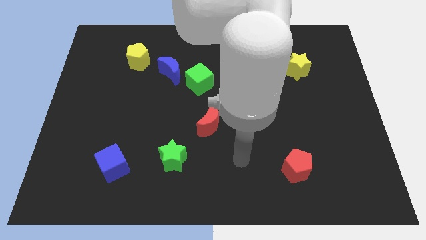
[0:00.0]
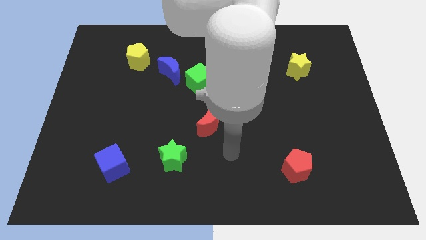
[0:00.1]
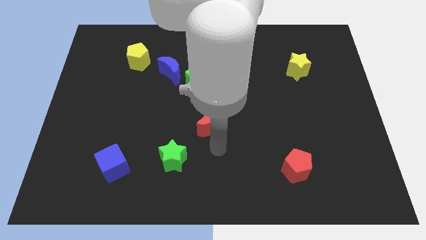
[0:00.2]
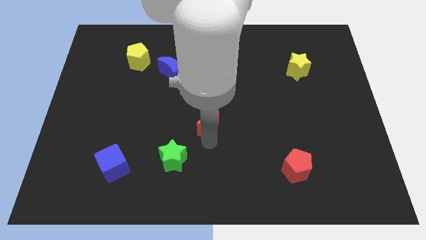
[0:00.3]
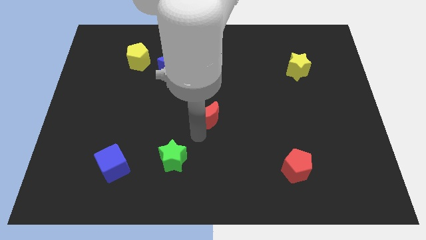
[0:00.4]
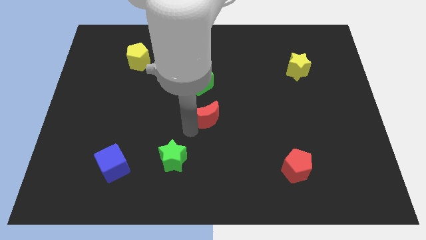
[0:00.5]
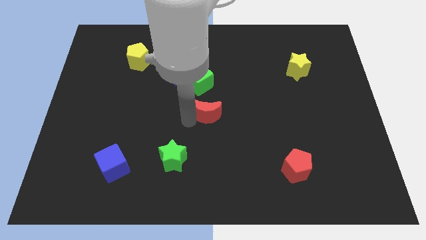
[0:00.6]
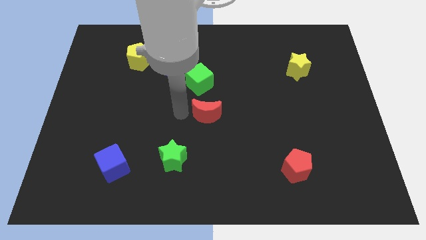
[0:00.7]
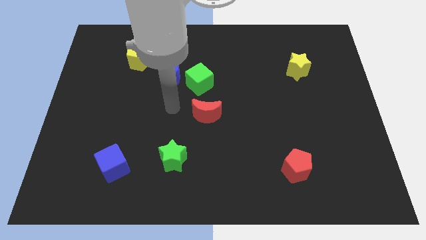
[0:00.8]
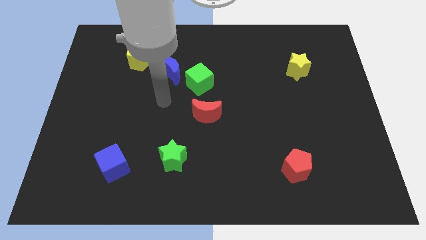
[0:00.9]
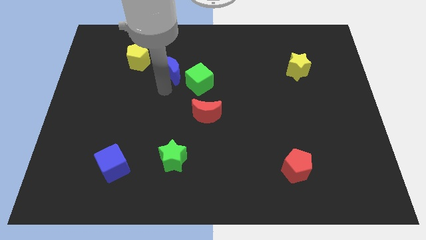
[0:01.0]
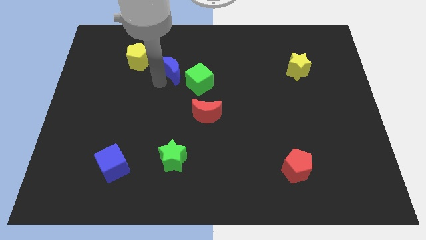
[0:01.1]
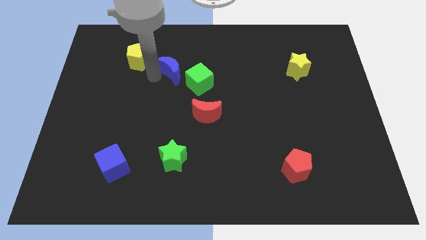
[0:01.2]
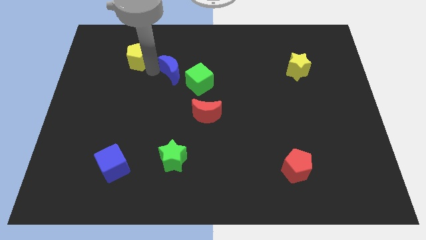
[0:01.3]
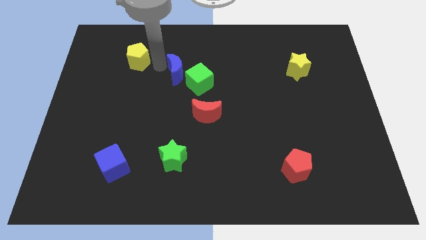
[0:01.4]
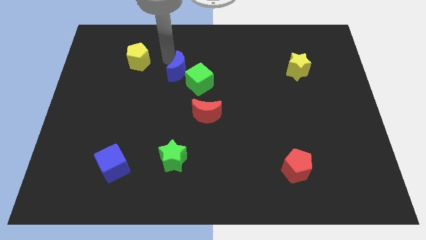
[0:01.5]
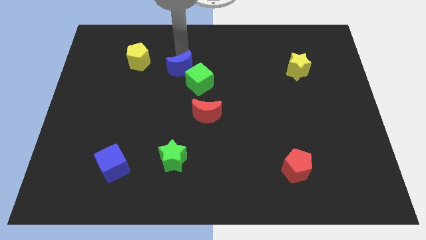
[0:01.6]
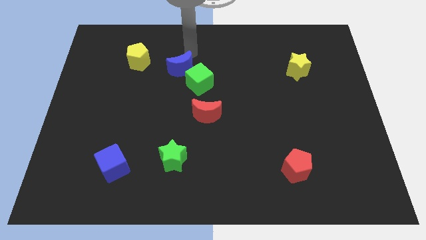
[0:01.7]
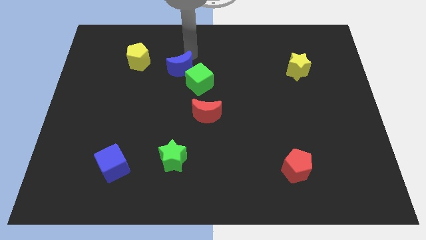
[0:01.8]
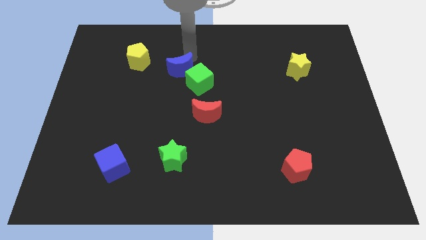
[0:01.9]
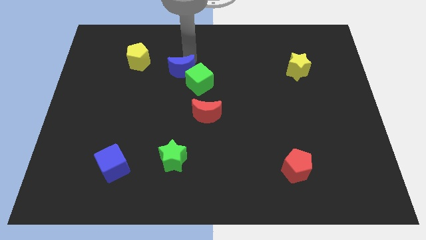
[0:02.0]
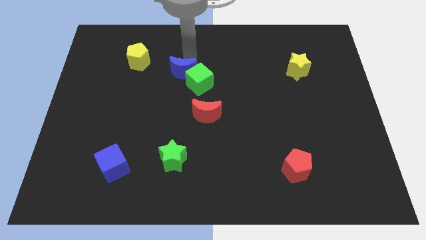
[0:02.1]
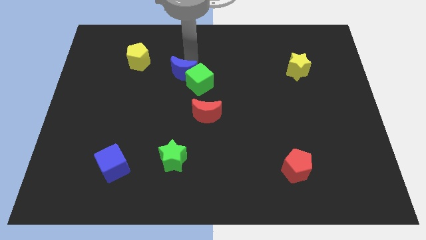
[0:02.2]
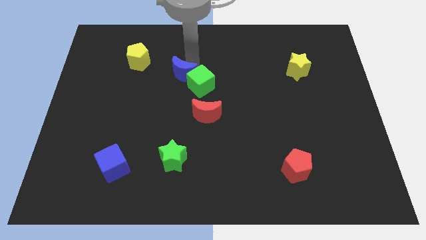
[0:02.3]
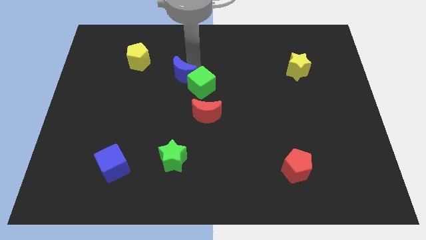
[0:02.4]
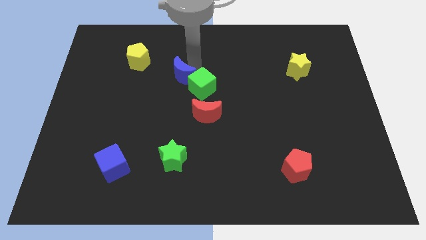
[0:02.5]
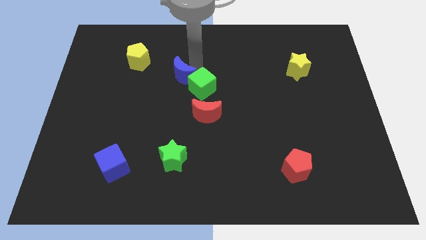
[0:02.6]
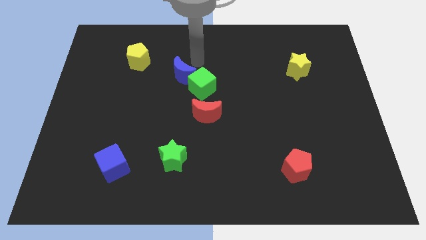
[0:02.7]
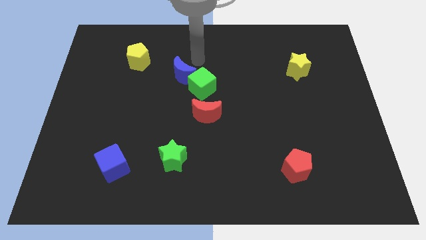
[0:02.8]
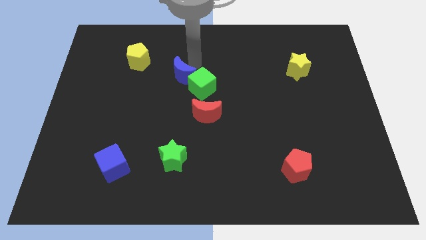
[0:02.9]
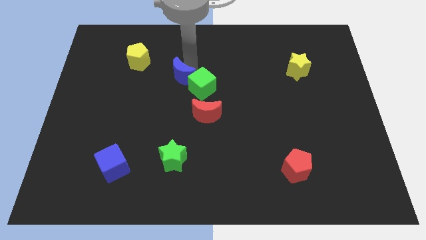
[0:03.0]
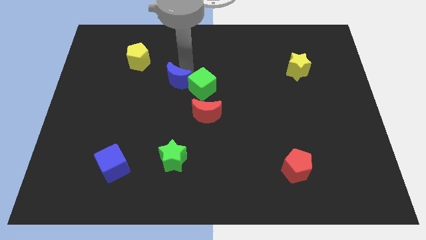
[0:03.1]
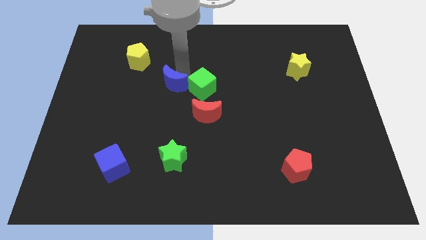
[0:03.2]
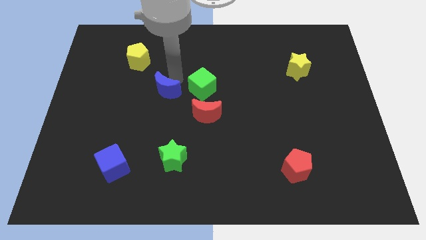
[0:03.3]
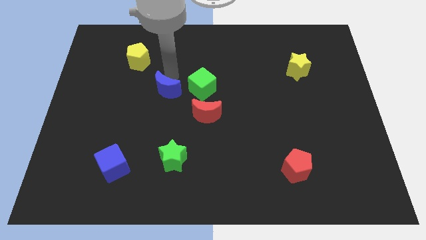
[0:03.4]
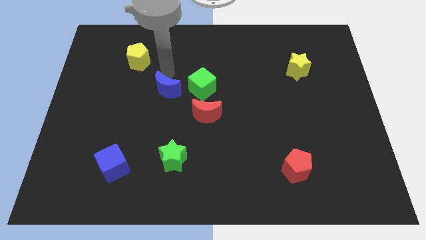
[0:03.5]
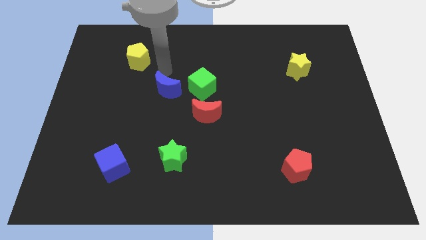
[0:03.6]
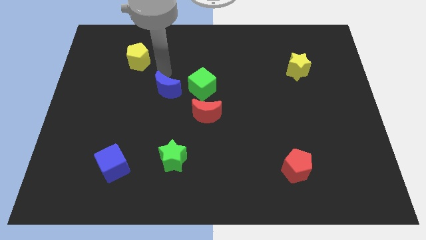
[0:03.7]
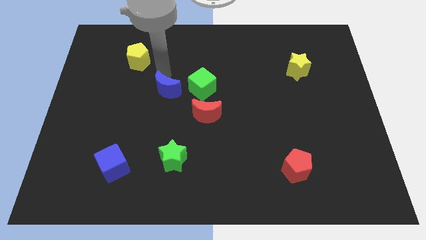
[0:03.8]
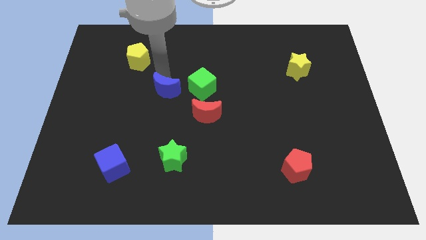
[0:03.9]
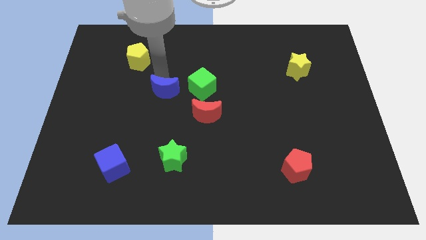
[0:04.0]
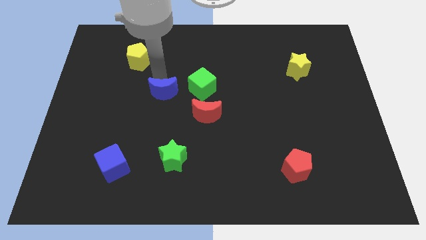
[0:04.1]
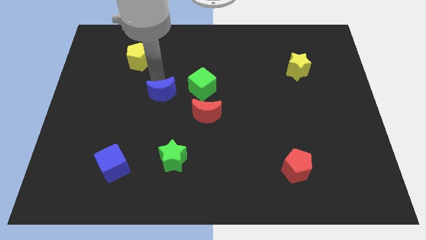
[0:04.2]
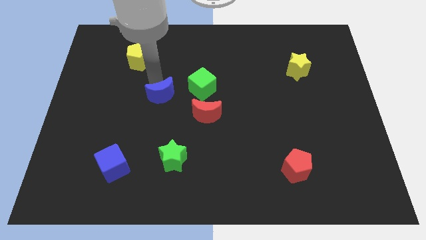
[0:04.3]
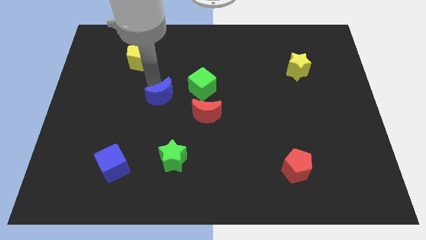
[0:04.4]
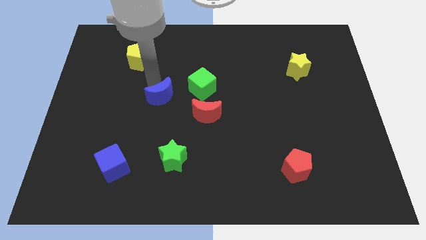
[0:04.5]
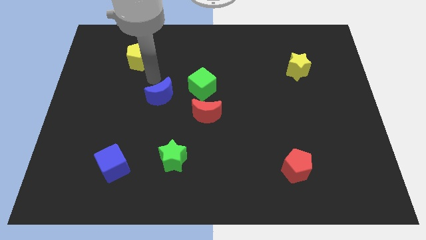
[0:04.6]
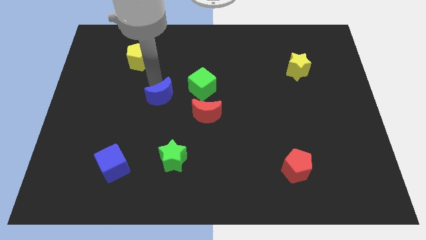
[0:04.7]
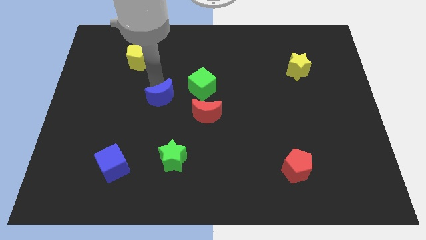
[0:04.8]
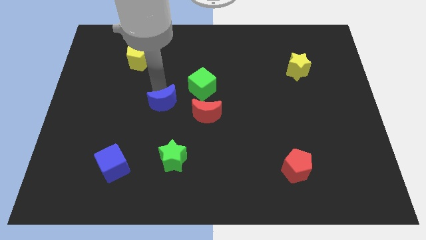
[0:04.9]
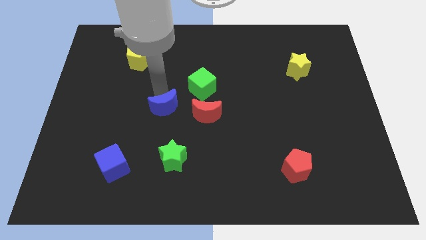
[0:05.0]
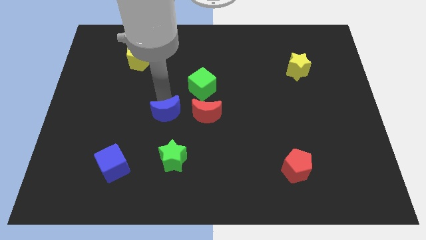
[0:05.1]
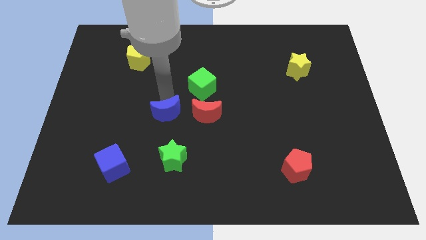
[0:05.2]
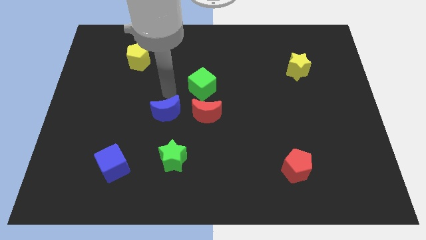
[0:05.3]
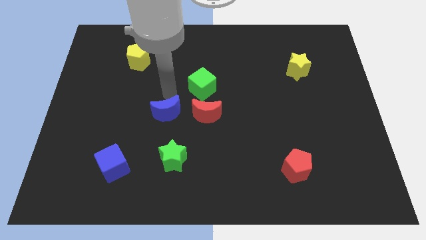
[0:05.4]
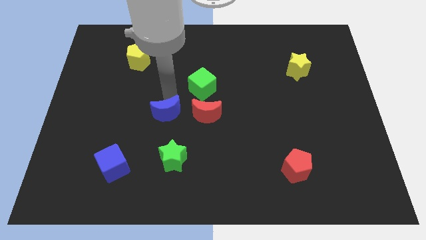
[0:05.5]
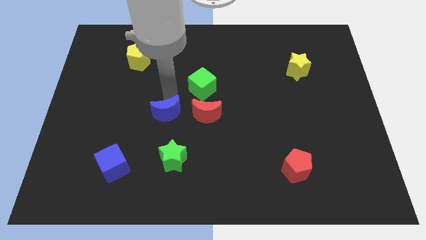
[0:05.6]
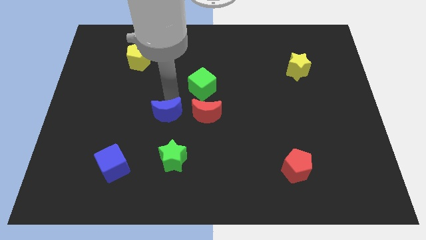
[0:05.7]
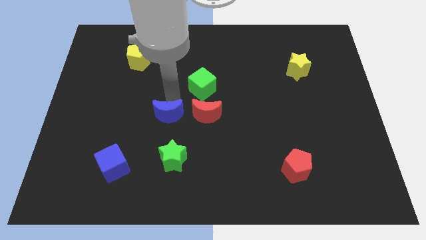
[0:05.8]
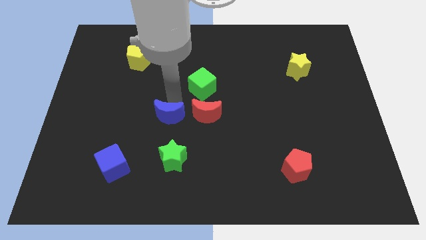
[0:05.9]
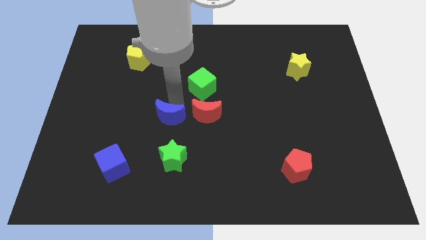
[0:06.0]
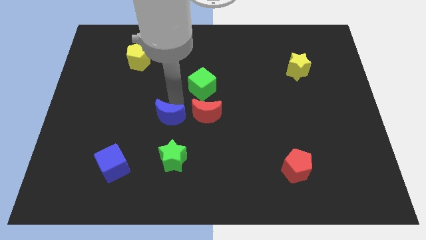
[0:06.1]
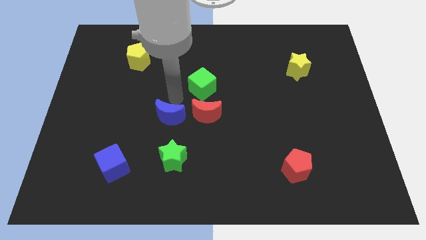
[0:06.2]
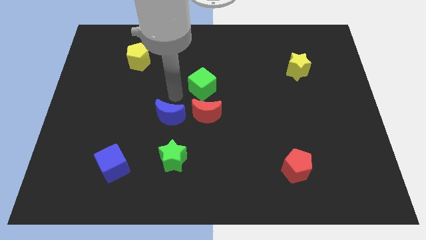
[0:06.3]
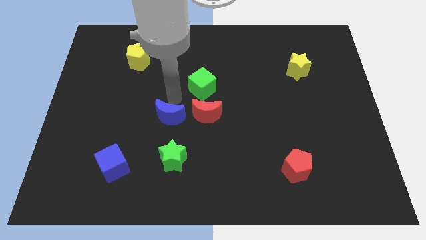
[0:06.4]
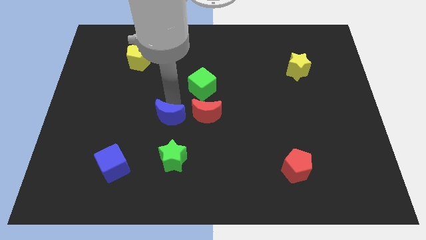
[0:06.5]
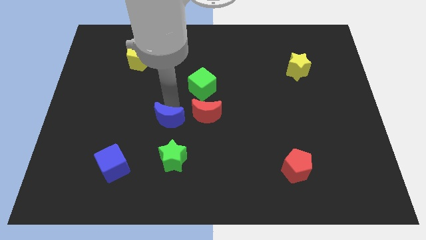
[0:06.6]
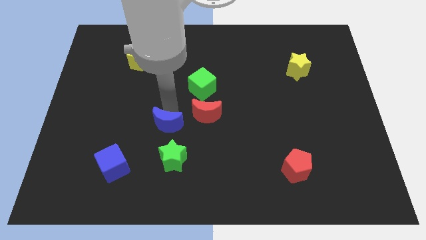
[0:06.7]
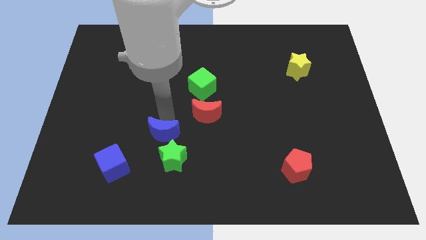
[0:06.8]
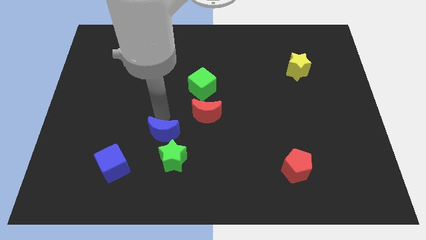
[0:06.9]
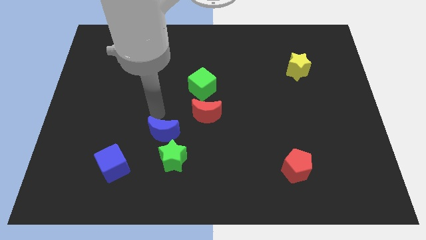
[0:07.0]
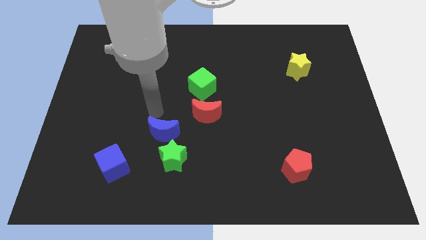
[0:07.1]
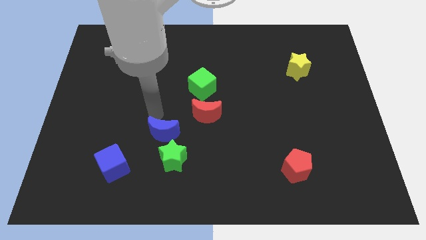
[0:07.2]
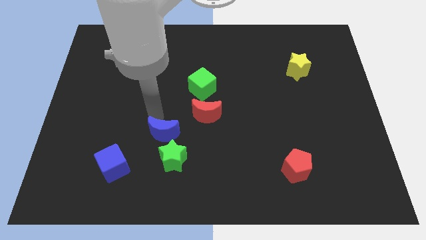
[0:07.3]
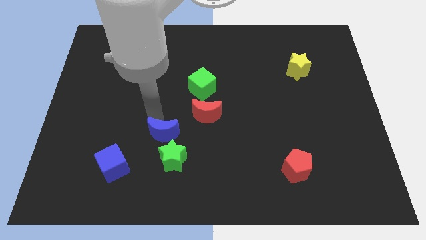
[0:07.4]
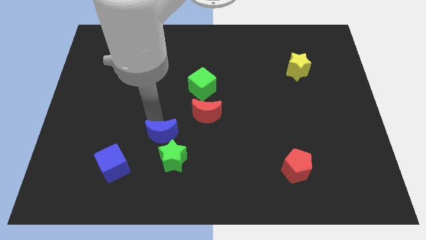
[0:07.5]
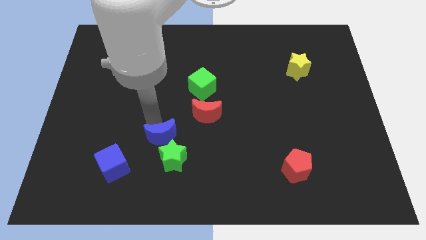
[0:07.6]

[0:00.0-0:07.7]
push the blue moon to the green star
